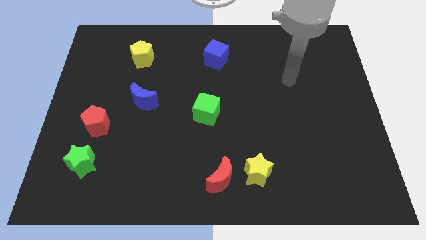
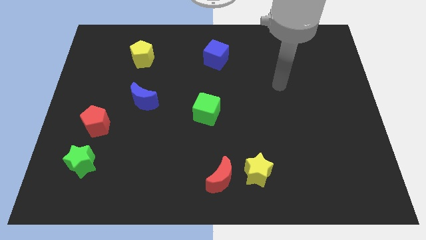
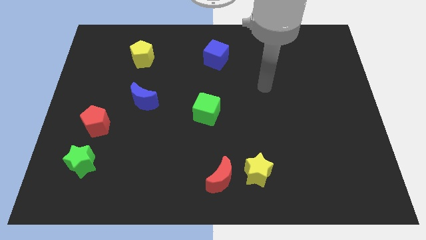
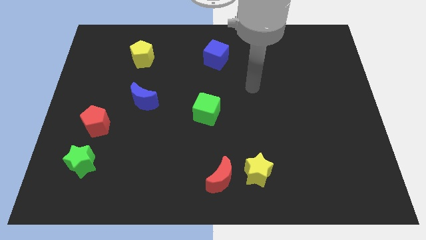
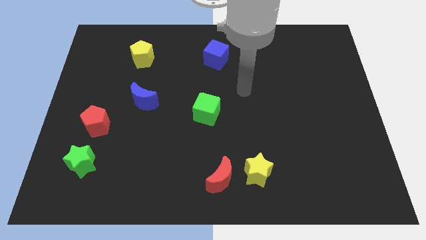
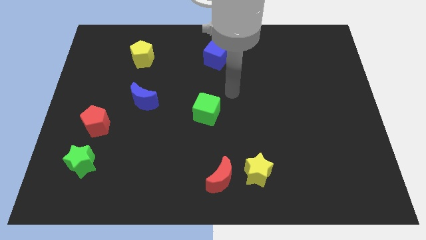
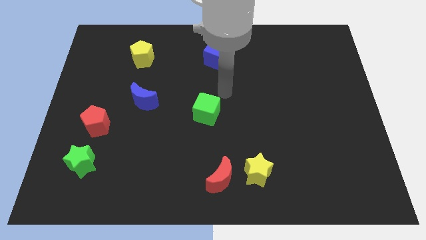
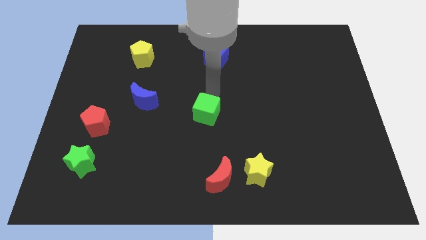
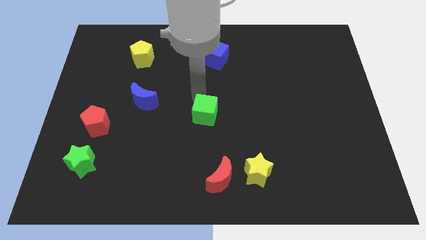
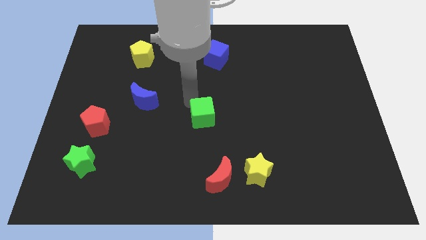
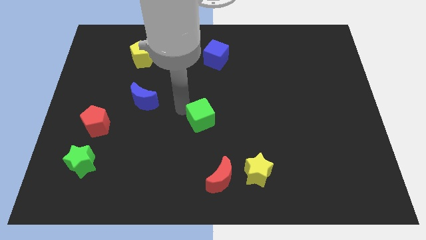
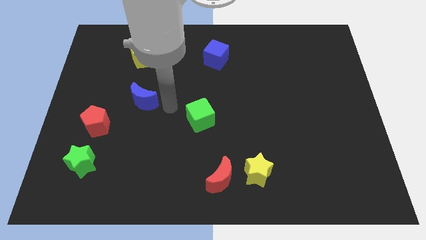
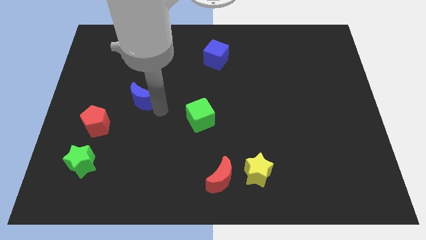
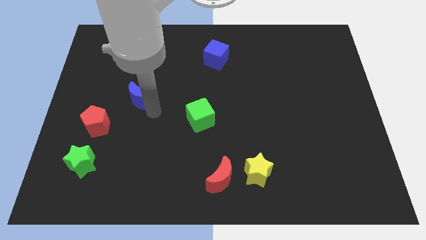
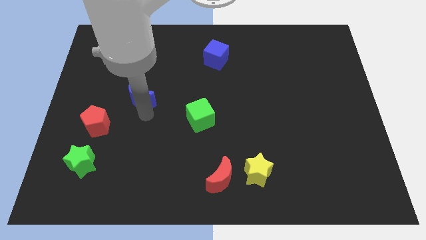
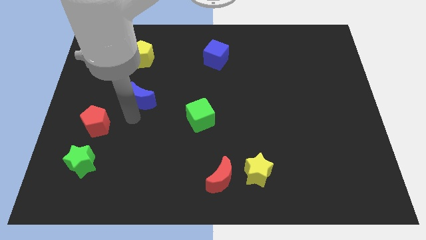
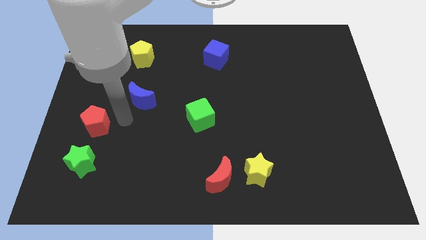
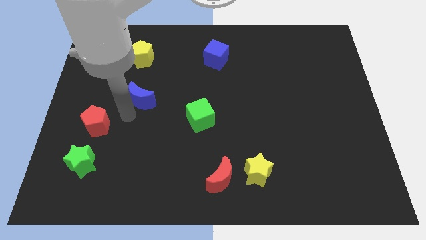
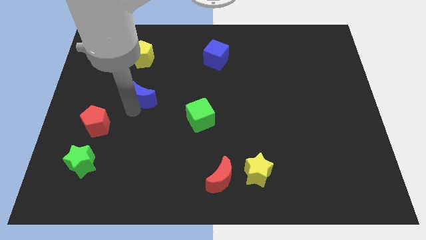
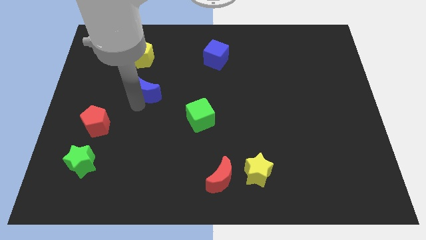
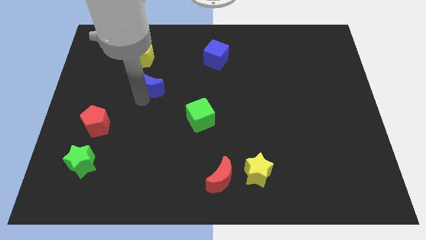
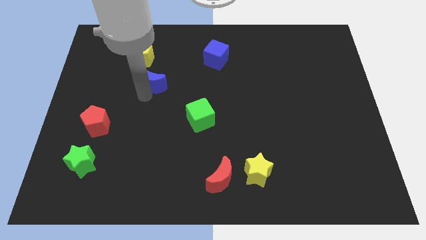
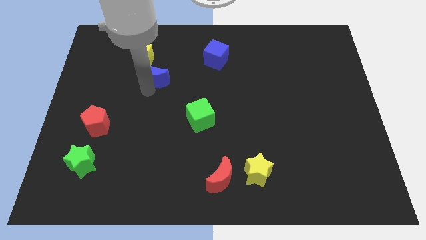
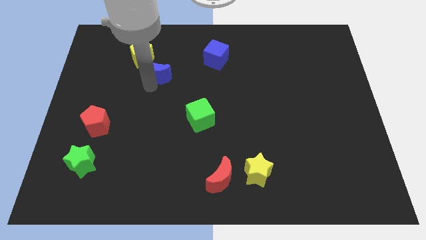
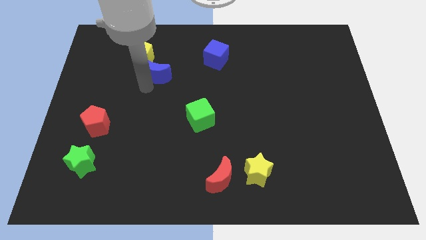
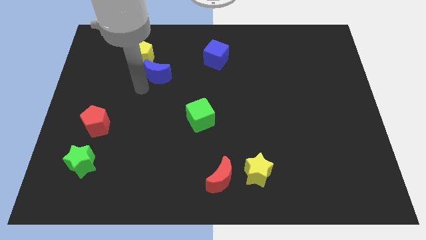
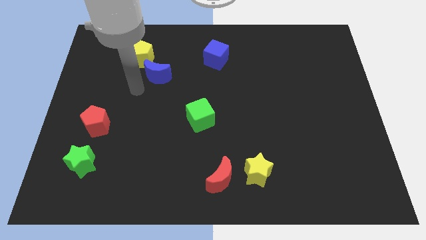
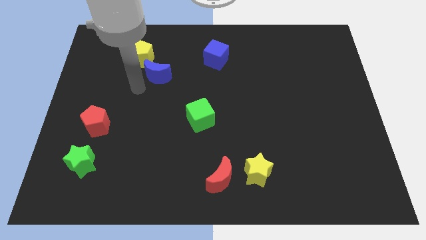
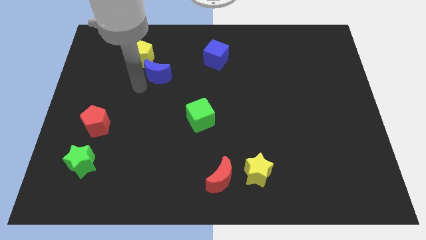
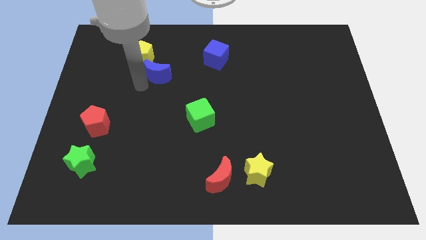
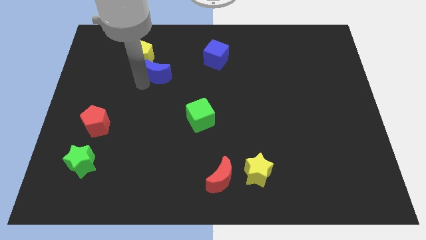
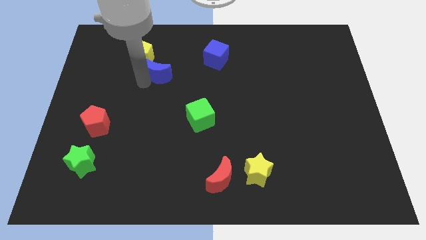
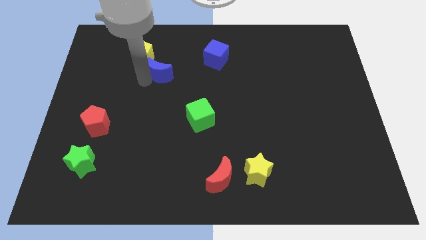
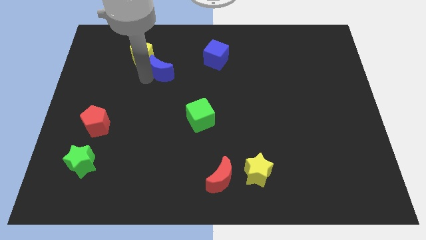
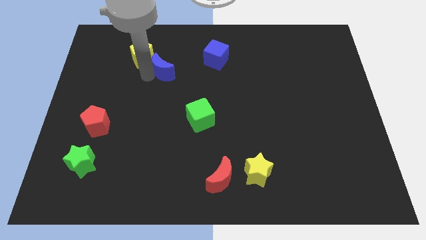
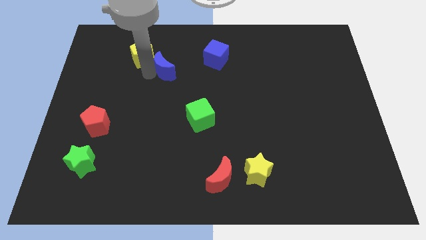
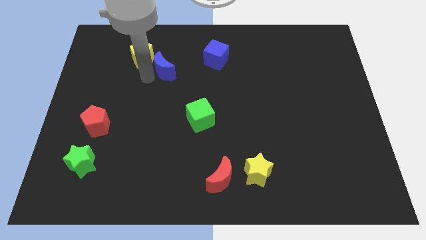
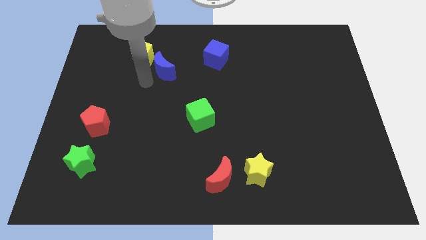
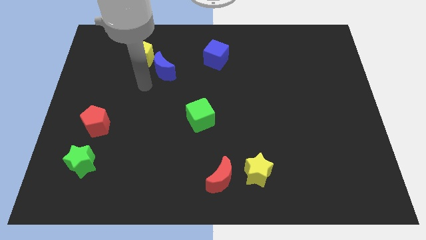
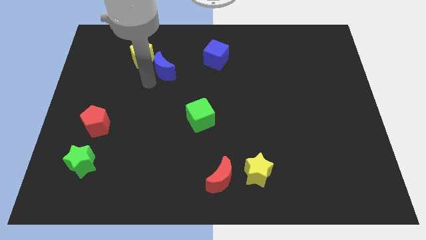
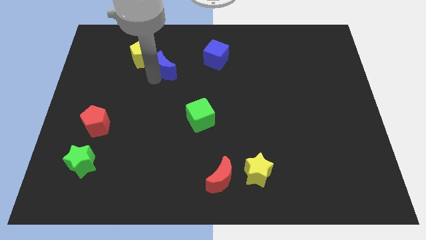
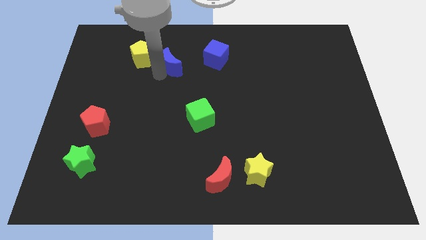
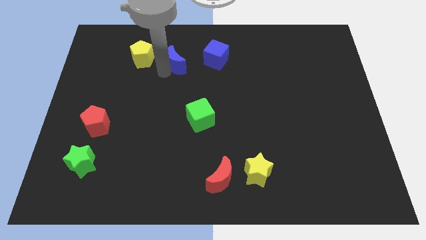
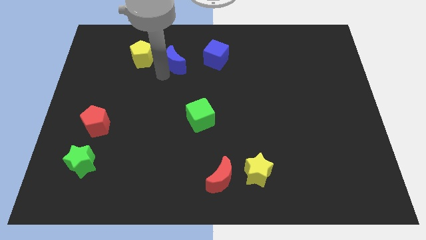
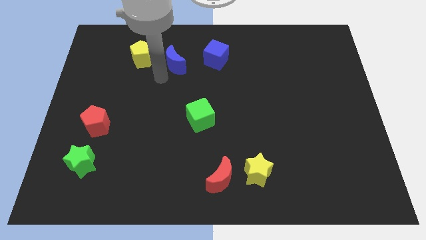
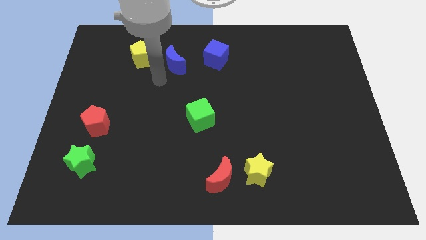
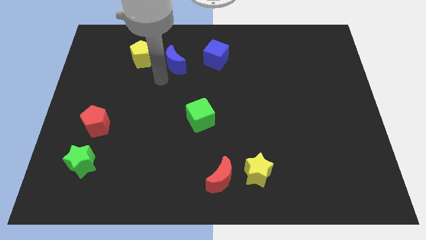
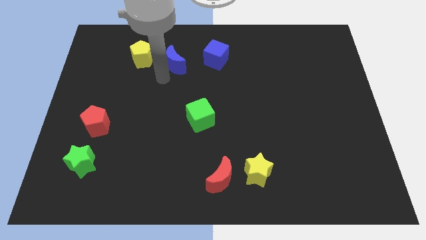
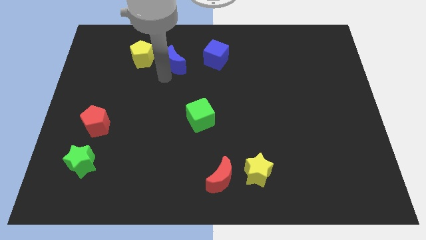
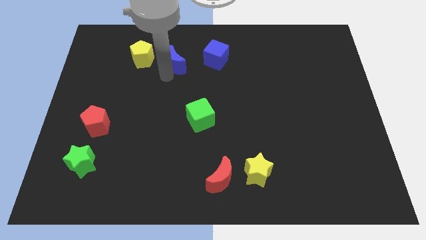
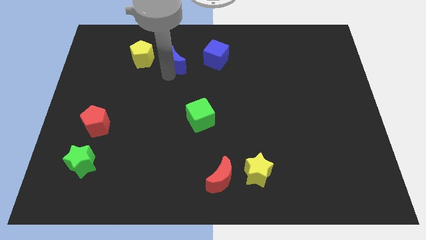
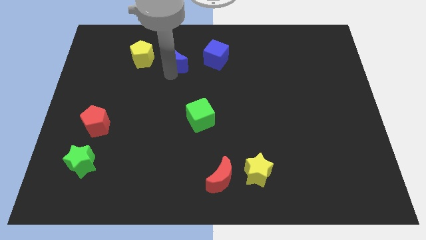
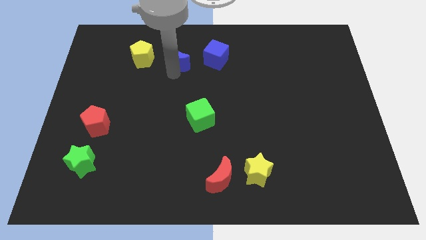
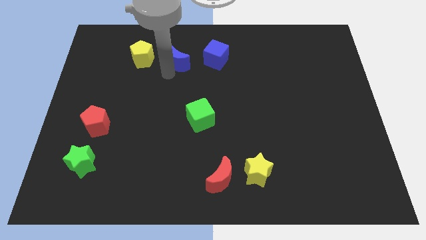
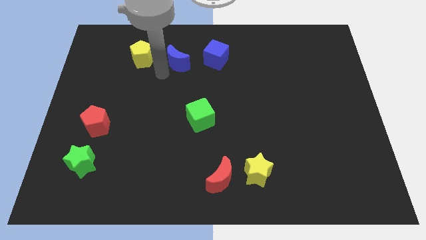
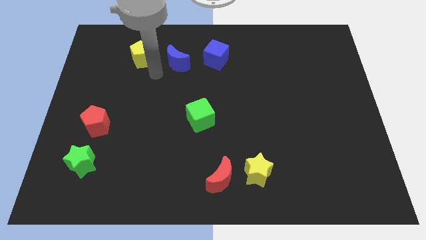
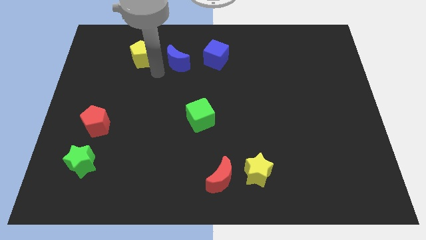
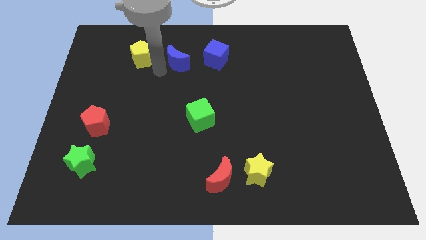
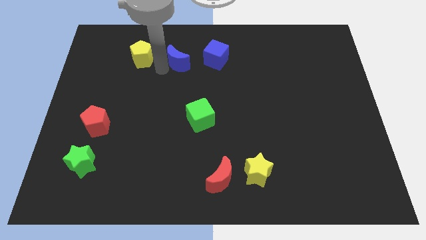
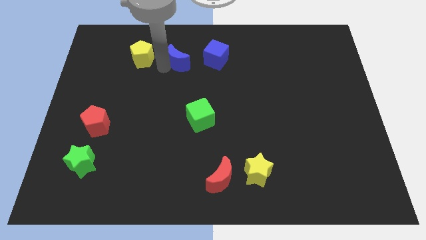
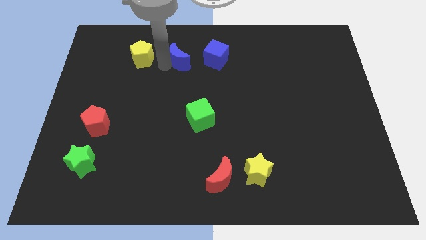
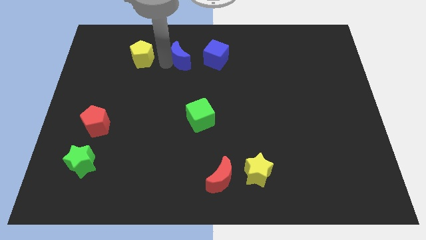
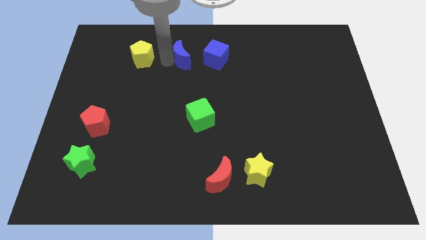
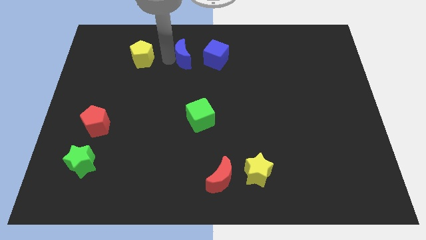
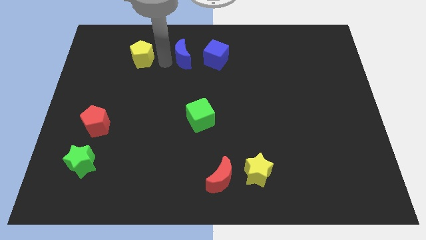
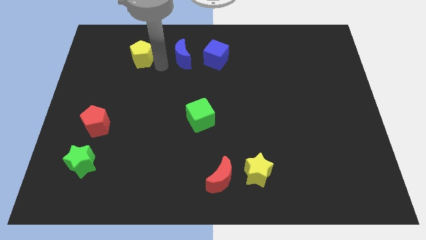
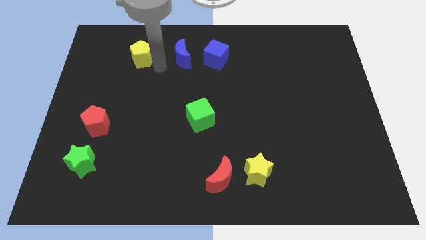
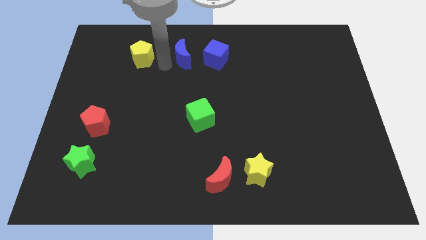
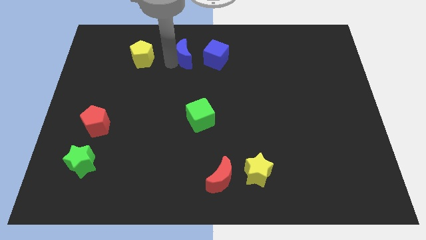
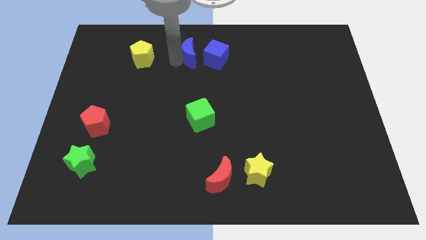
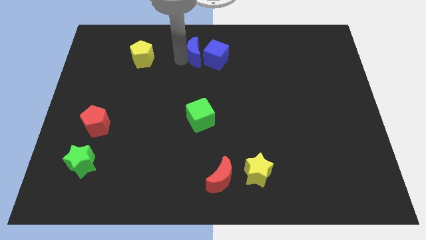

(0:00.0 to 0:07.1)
move the blue moon to the towards your base
